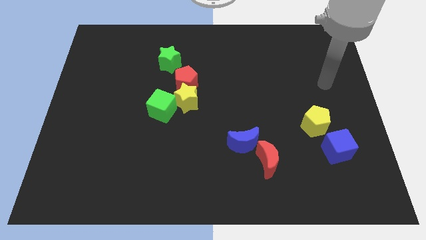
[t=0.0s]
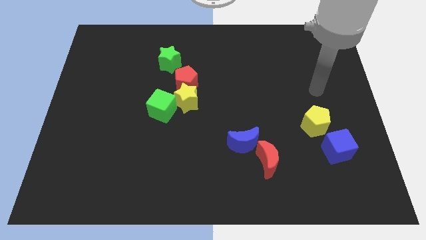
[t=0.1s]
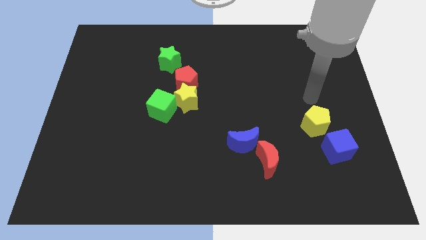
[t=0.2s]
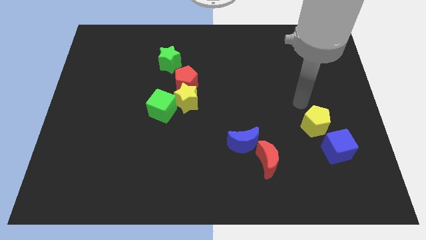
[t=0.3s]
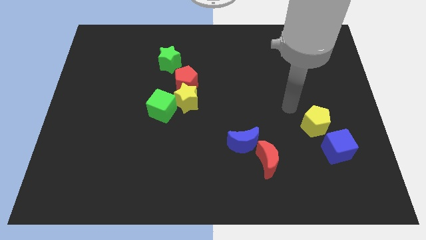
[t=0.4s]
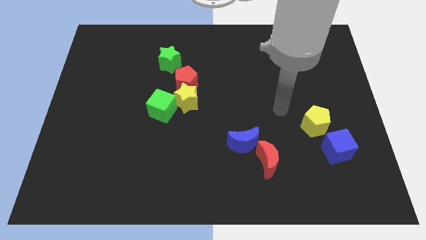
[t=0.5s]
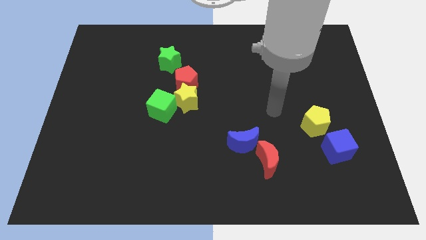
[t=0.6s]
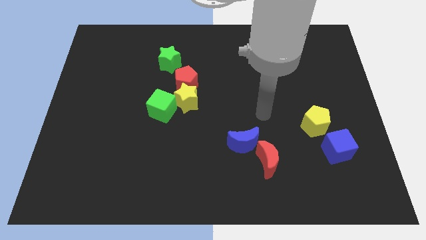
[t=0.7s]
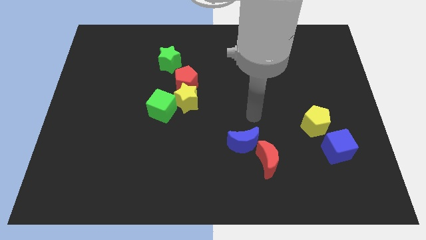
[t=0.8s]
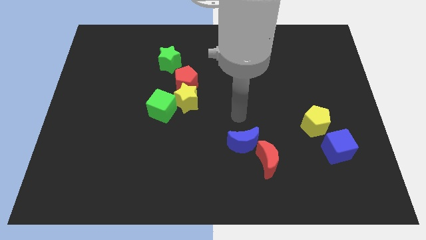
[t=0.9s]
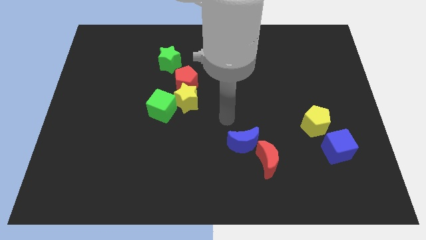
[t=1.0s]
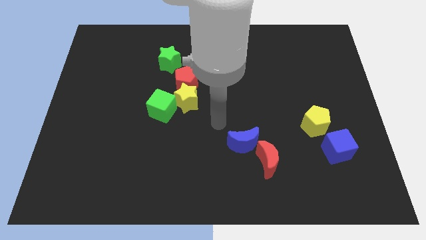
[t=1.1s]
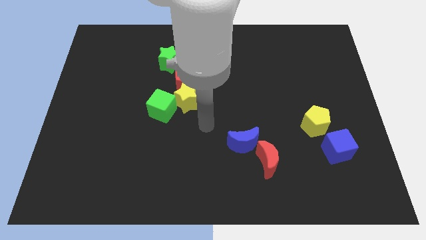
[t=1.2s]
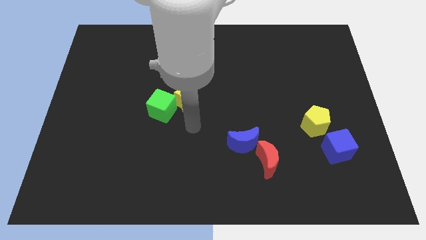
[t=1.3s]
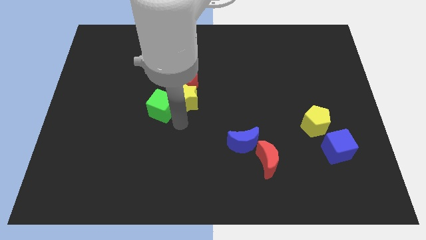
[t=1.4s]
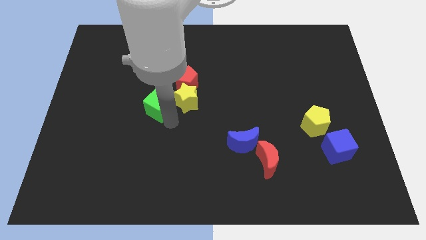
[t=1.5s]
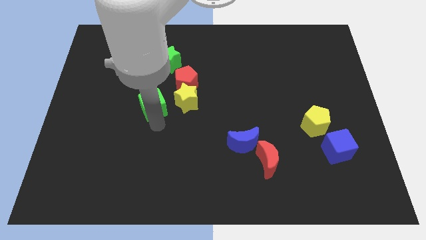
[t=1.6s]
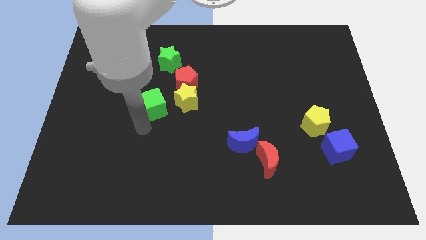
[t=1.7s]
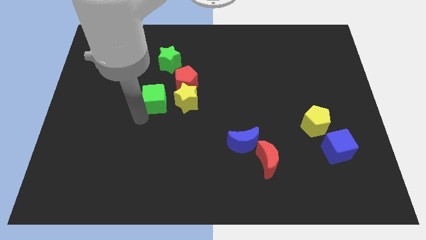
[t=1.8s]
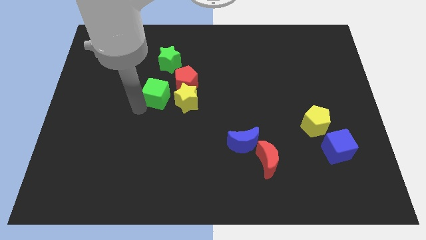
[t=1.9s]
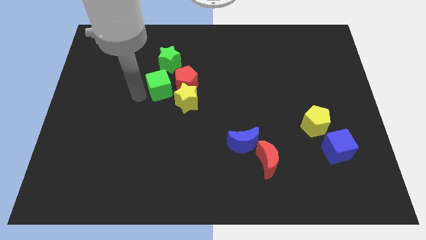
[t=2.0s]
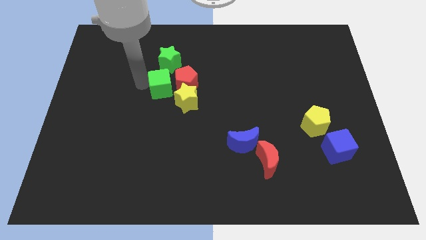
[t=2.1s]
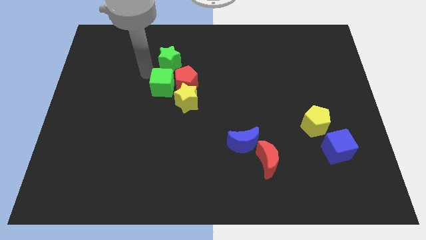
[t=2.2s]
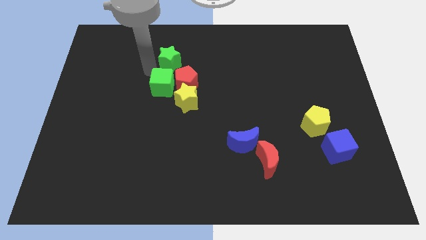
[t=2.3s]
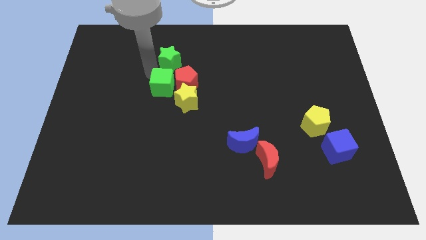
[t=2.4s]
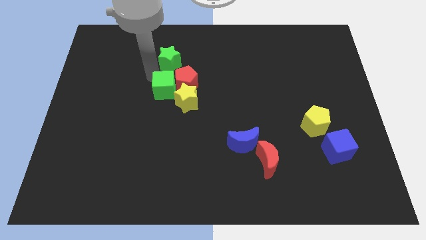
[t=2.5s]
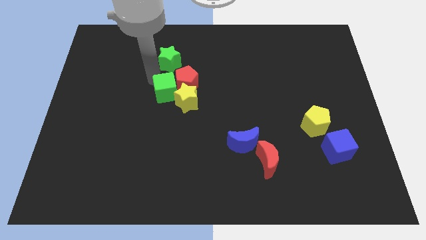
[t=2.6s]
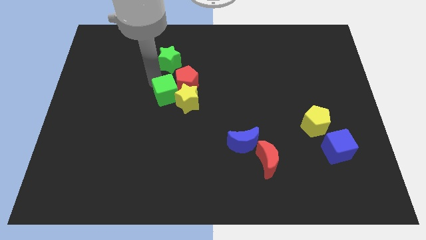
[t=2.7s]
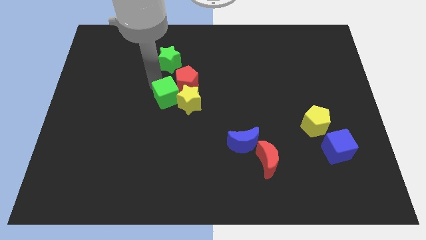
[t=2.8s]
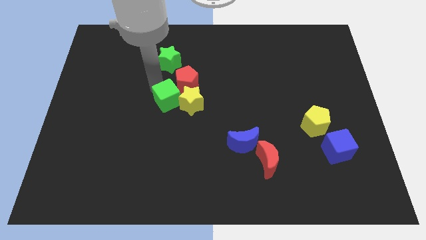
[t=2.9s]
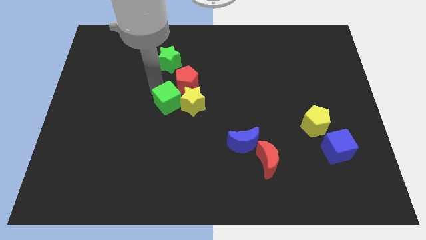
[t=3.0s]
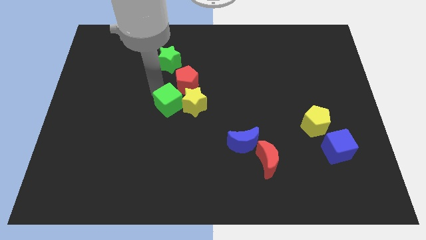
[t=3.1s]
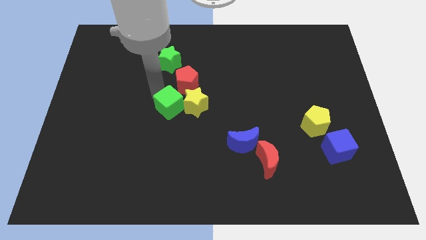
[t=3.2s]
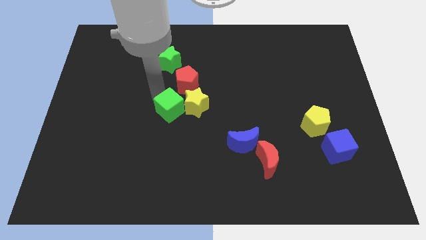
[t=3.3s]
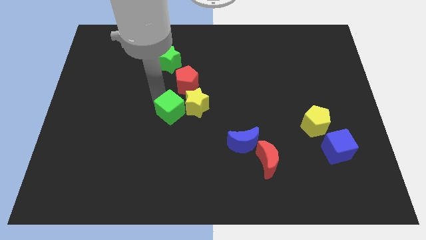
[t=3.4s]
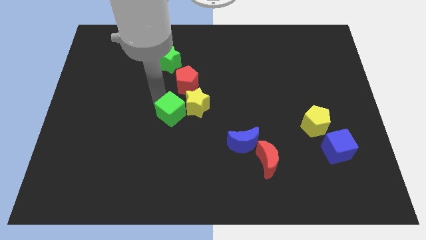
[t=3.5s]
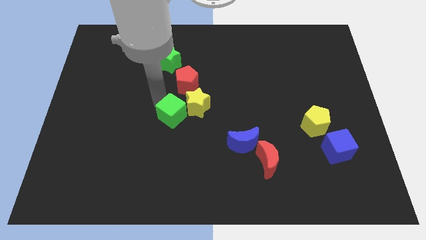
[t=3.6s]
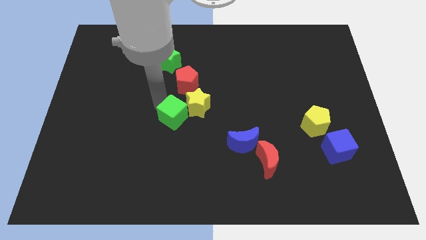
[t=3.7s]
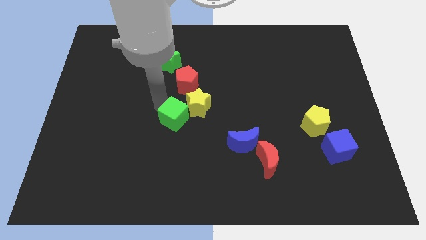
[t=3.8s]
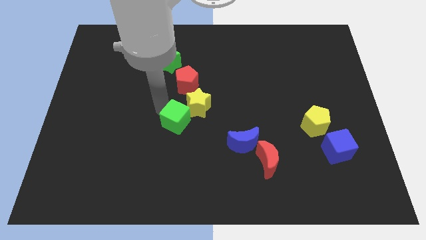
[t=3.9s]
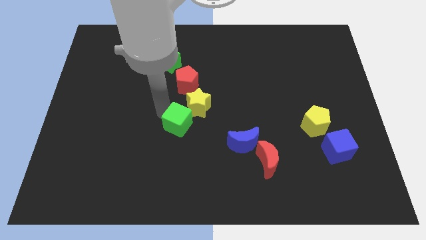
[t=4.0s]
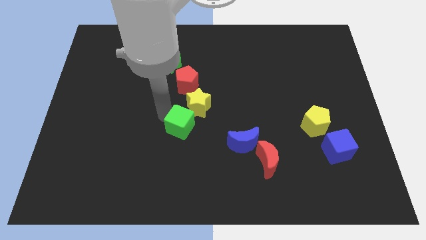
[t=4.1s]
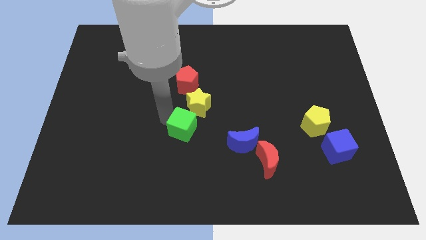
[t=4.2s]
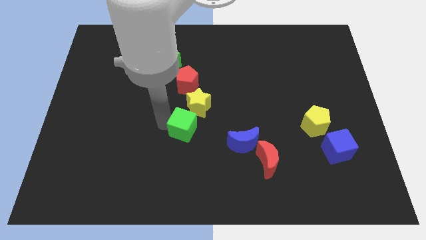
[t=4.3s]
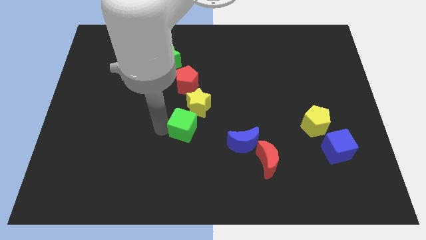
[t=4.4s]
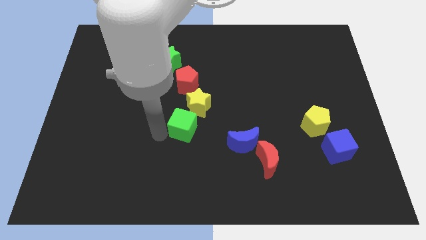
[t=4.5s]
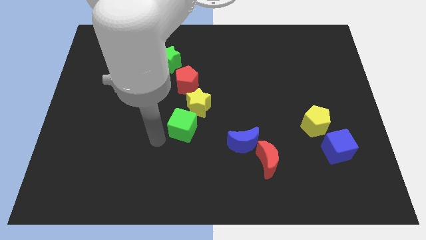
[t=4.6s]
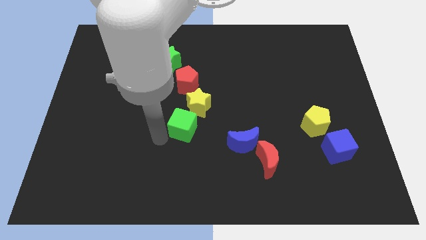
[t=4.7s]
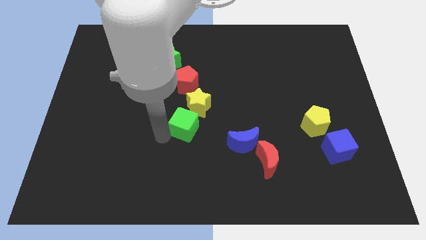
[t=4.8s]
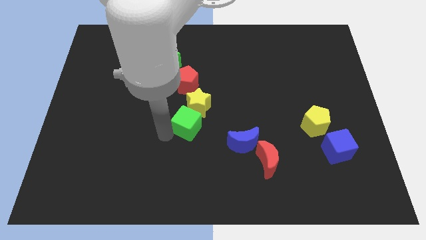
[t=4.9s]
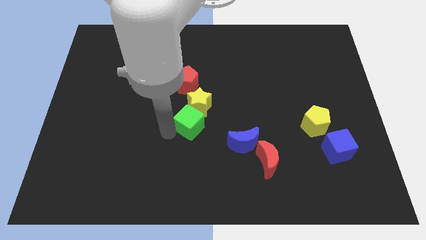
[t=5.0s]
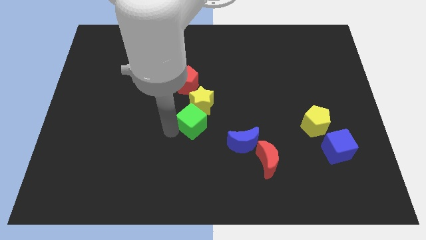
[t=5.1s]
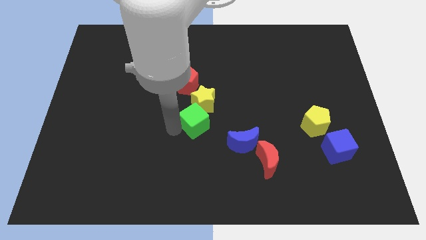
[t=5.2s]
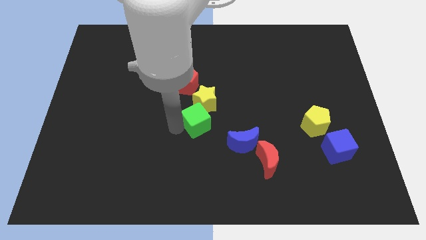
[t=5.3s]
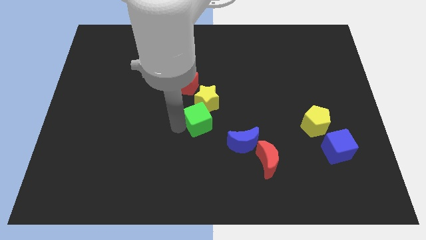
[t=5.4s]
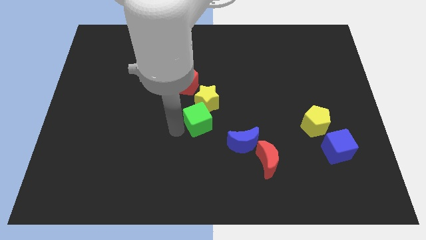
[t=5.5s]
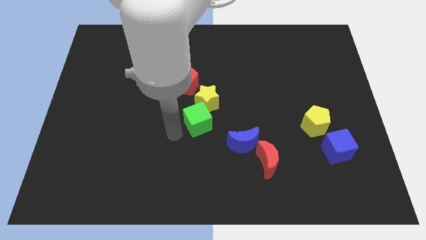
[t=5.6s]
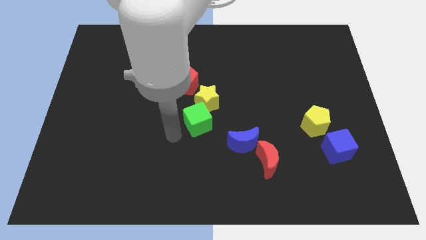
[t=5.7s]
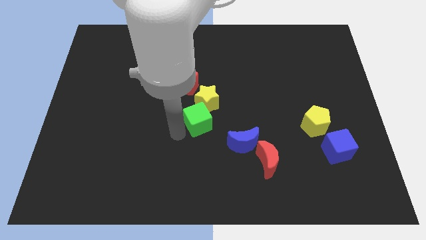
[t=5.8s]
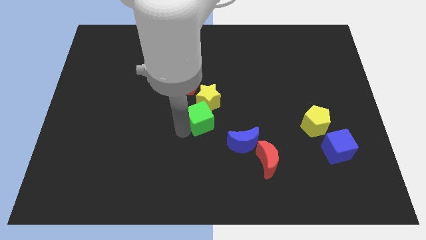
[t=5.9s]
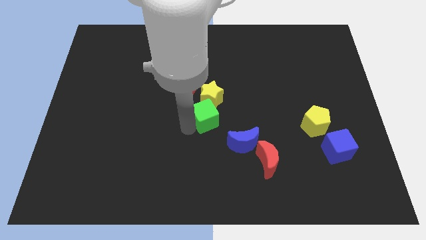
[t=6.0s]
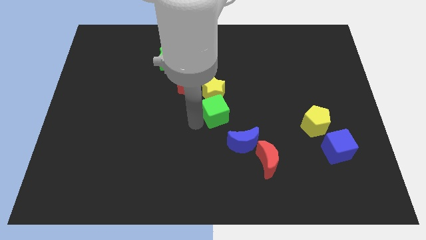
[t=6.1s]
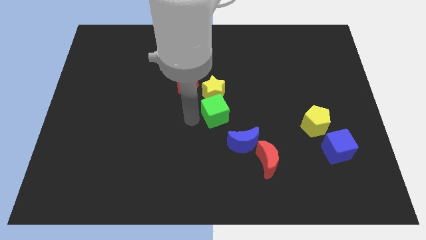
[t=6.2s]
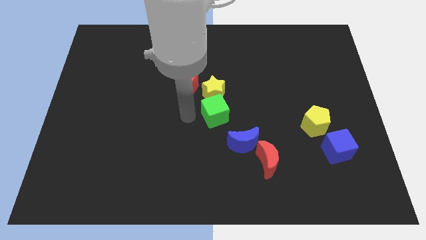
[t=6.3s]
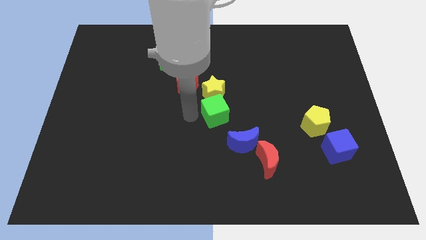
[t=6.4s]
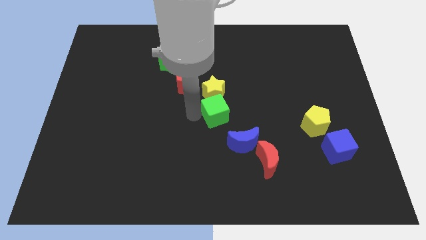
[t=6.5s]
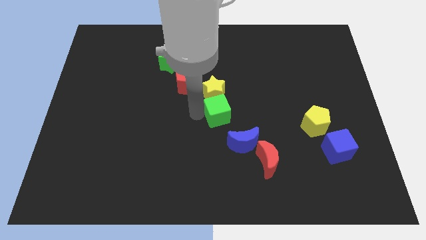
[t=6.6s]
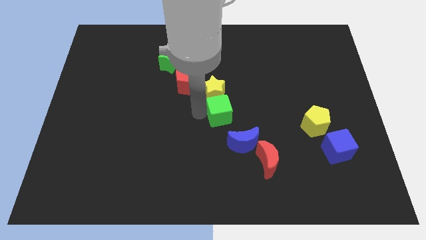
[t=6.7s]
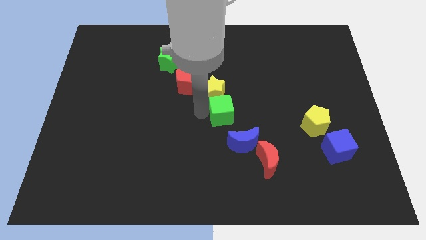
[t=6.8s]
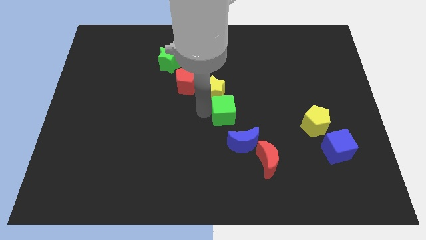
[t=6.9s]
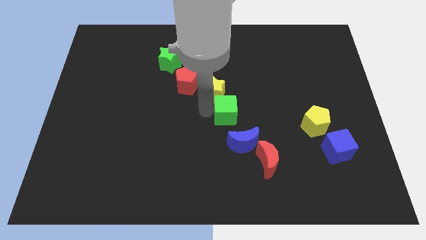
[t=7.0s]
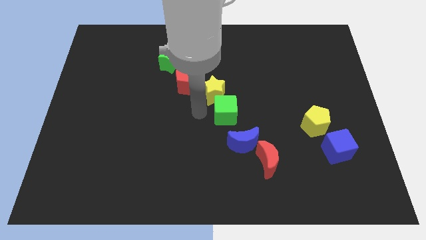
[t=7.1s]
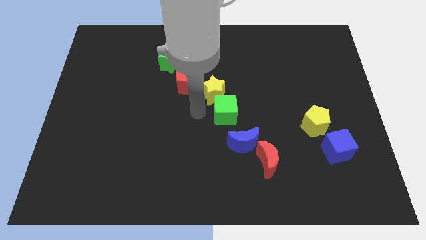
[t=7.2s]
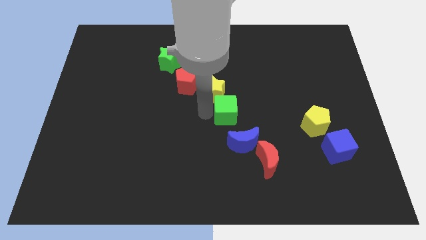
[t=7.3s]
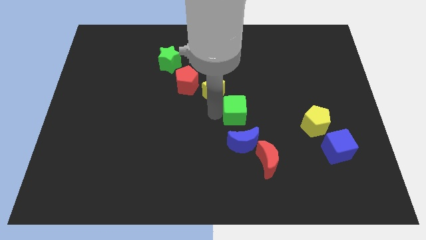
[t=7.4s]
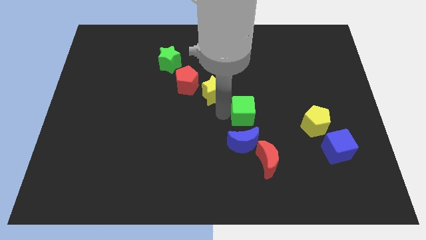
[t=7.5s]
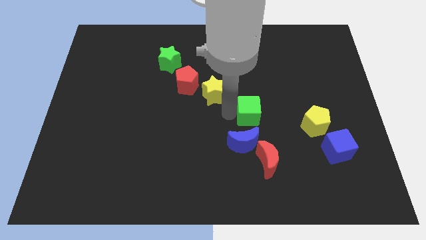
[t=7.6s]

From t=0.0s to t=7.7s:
slide the green cube right

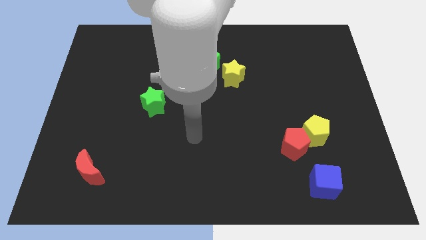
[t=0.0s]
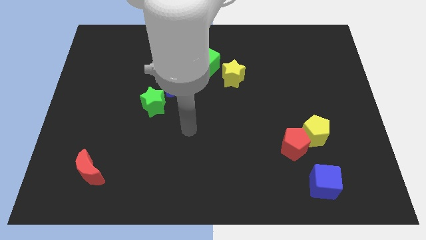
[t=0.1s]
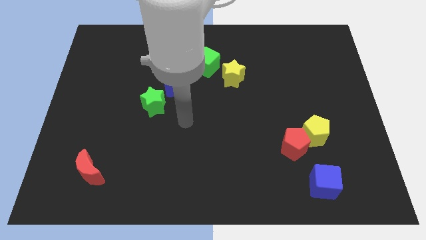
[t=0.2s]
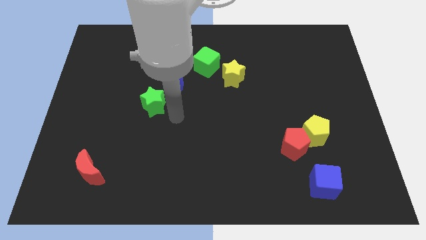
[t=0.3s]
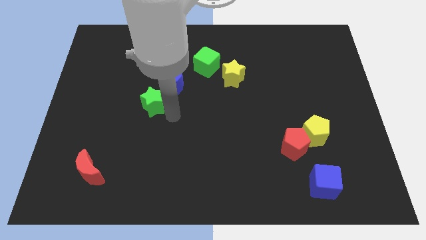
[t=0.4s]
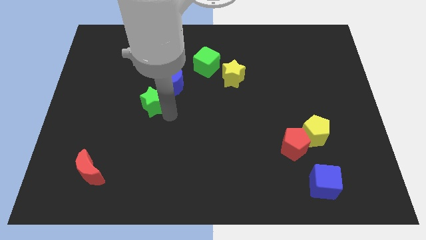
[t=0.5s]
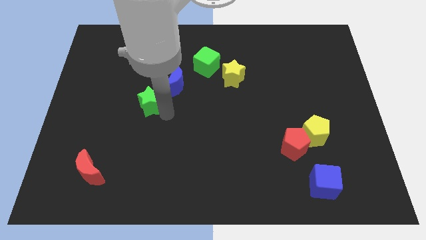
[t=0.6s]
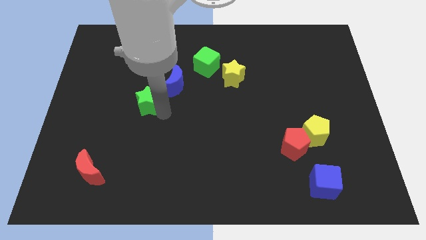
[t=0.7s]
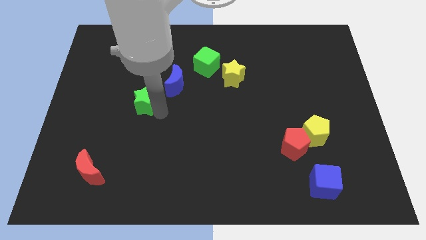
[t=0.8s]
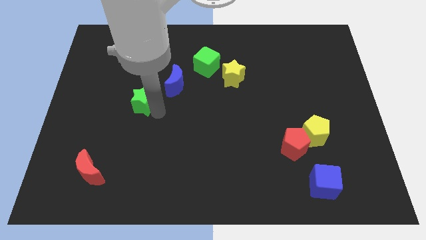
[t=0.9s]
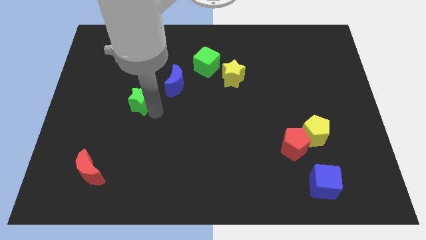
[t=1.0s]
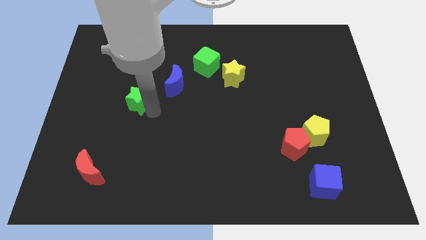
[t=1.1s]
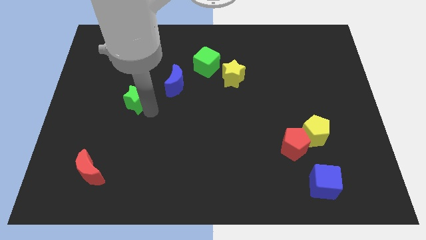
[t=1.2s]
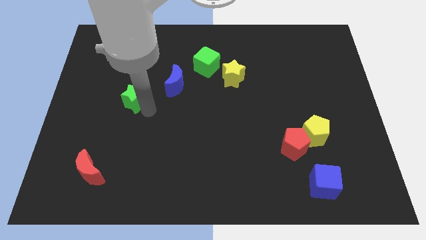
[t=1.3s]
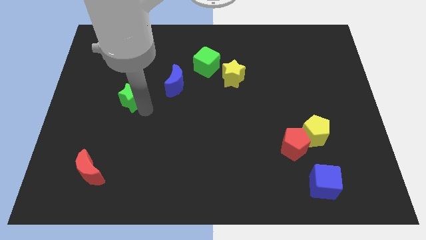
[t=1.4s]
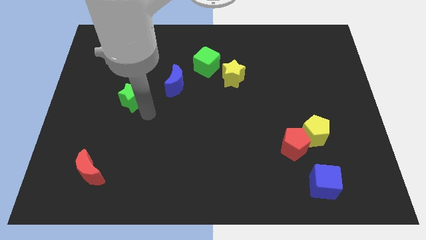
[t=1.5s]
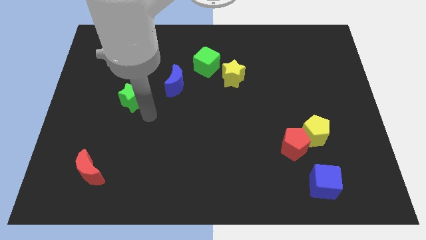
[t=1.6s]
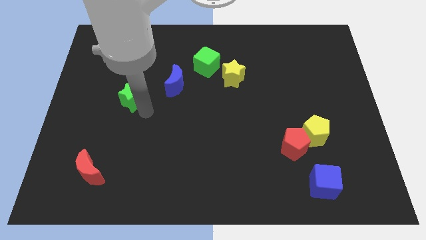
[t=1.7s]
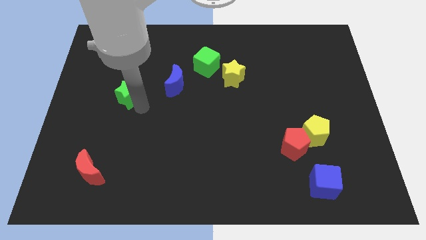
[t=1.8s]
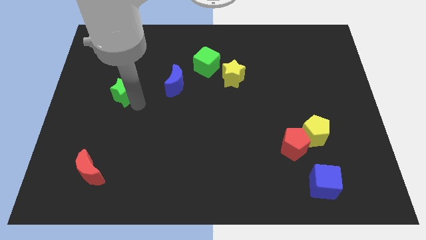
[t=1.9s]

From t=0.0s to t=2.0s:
slightly push the green star up and then left
